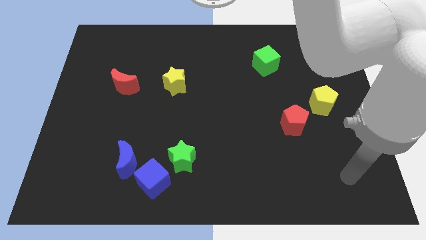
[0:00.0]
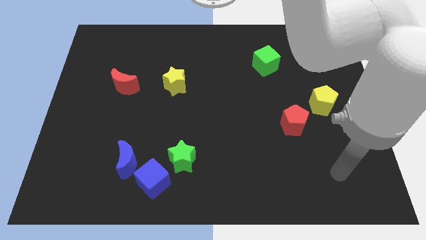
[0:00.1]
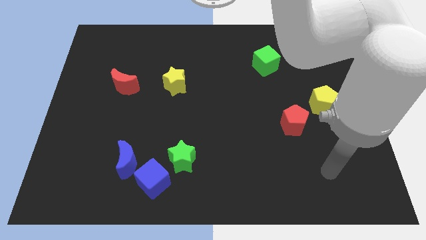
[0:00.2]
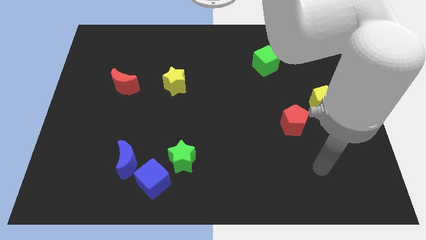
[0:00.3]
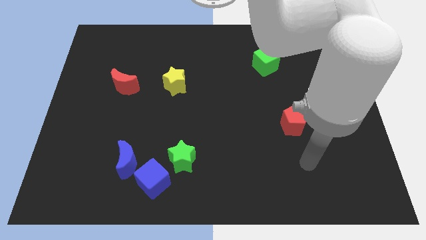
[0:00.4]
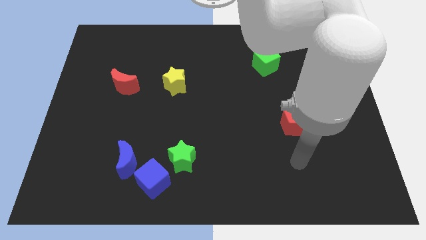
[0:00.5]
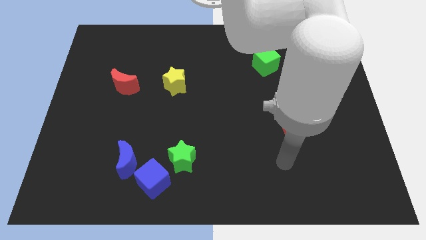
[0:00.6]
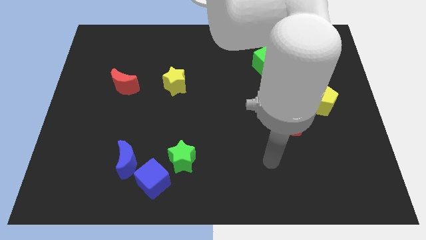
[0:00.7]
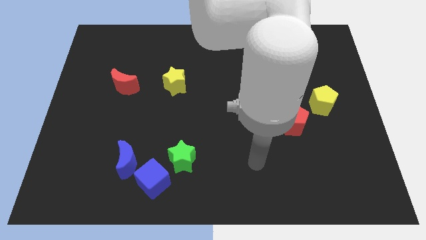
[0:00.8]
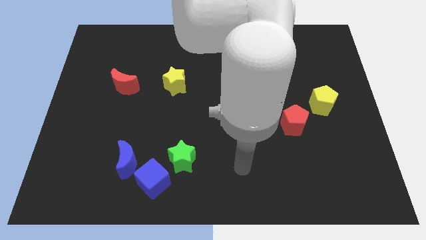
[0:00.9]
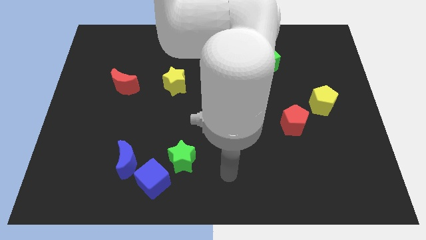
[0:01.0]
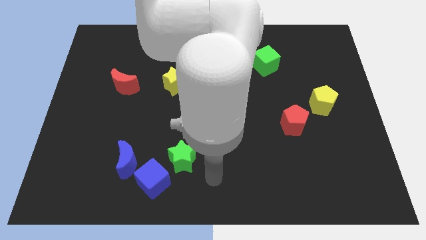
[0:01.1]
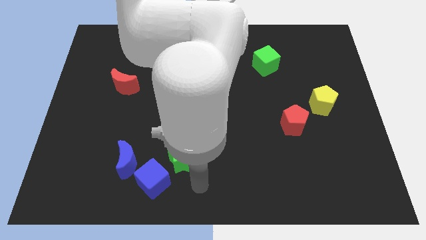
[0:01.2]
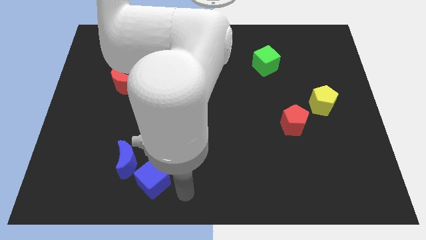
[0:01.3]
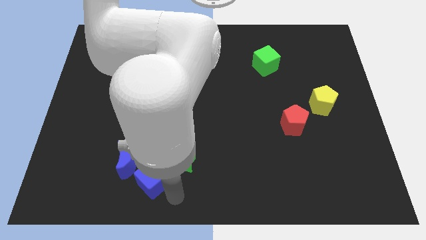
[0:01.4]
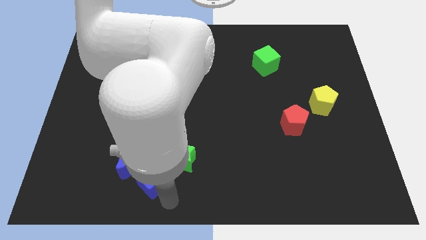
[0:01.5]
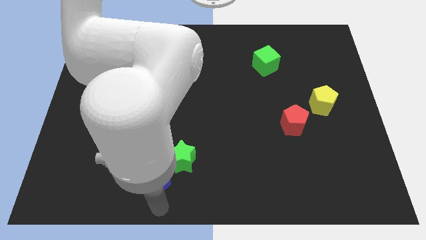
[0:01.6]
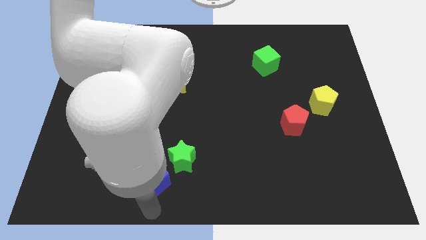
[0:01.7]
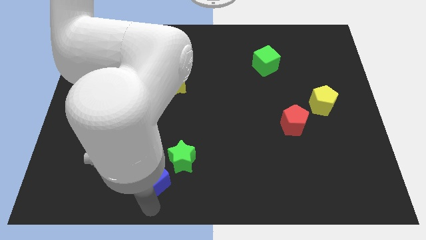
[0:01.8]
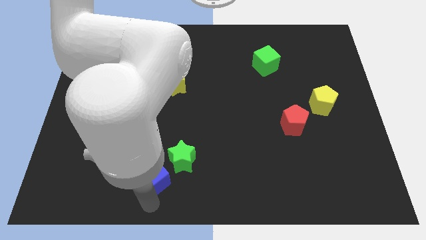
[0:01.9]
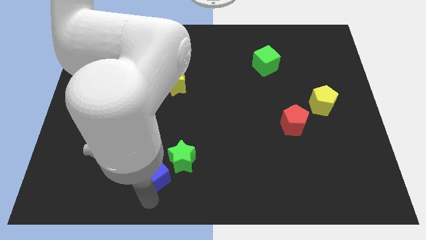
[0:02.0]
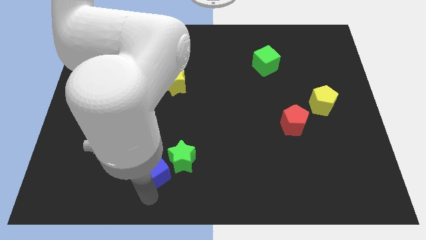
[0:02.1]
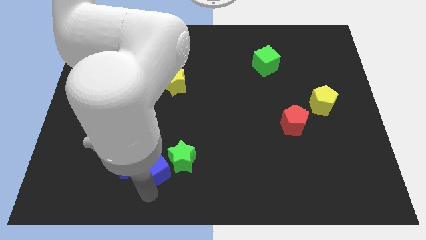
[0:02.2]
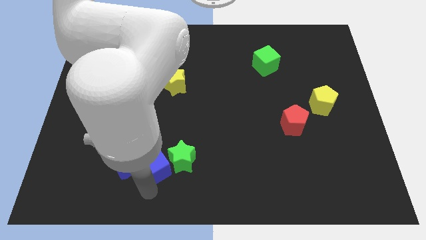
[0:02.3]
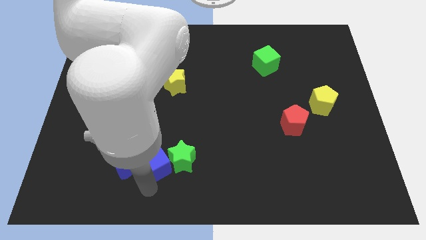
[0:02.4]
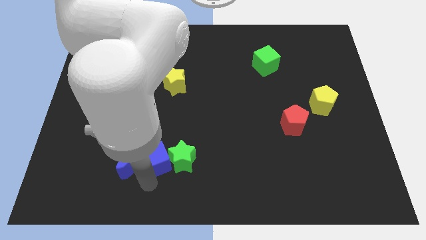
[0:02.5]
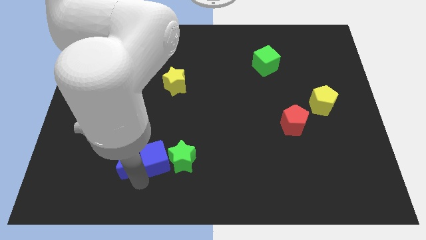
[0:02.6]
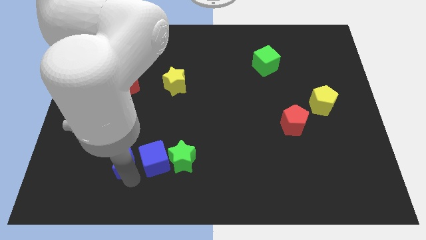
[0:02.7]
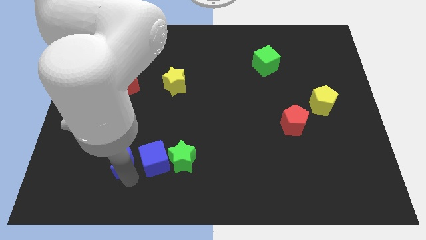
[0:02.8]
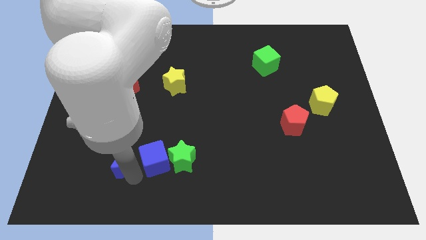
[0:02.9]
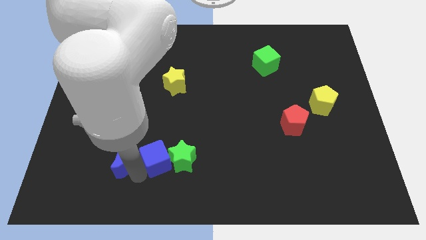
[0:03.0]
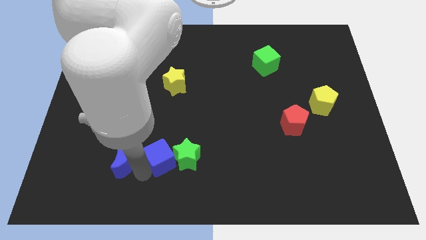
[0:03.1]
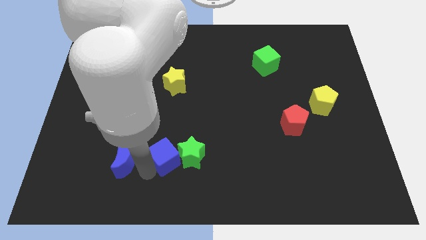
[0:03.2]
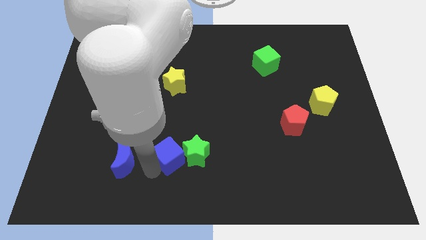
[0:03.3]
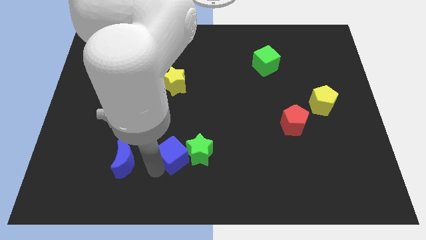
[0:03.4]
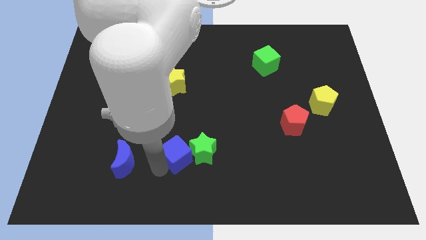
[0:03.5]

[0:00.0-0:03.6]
slide the blue cube diagonally up and right a bit

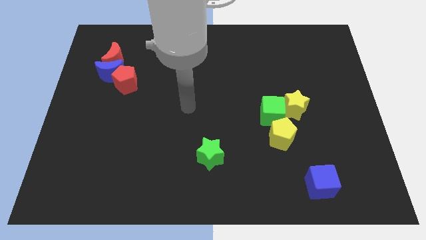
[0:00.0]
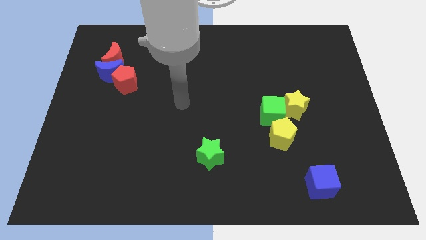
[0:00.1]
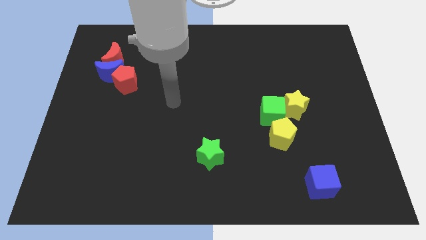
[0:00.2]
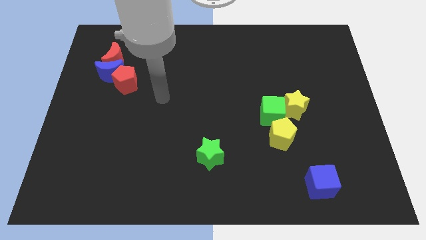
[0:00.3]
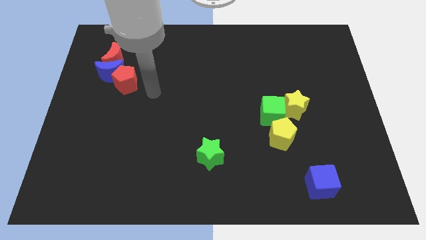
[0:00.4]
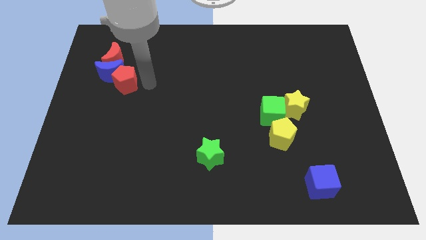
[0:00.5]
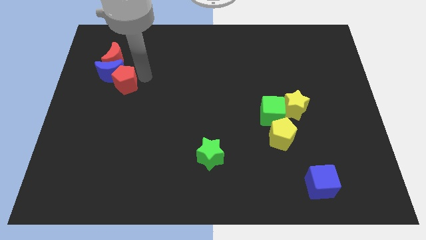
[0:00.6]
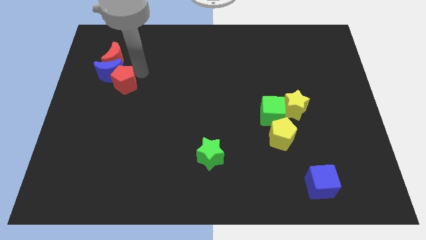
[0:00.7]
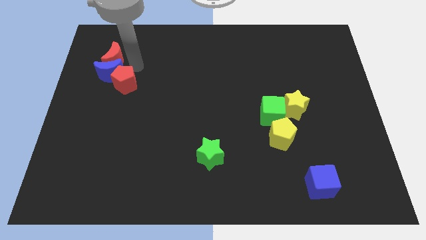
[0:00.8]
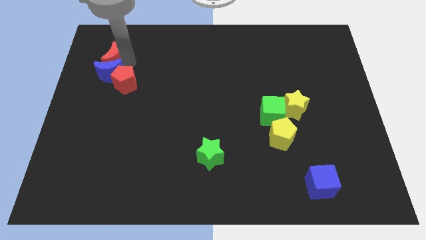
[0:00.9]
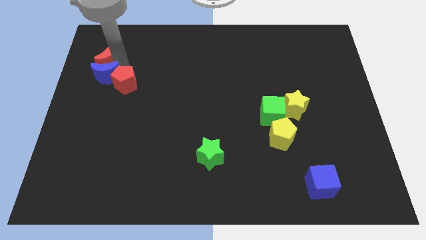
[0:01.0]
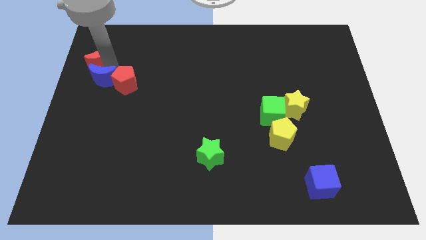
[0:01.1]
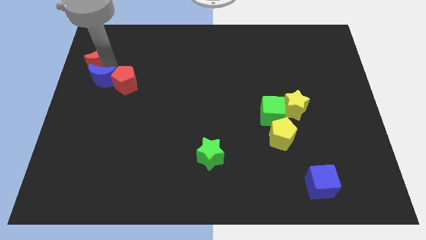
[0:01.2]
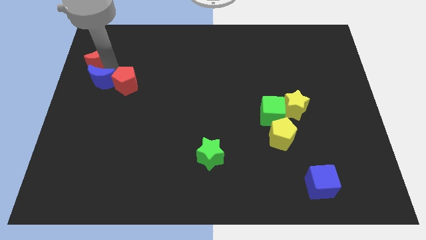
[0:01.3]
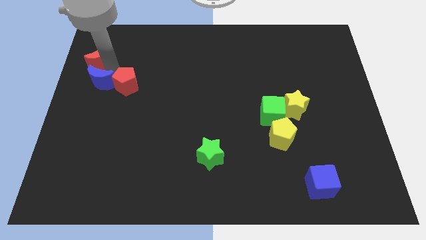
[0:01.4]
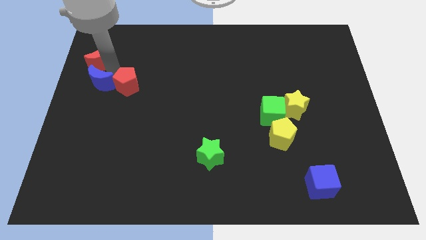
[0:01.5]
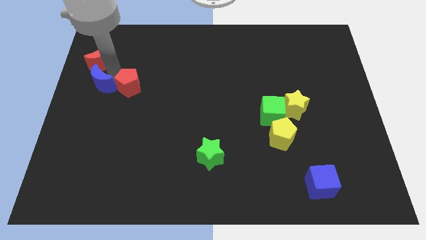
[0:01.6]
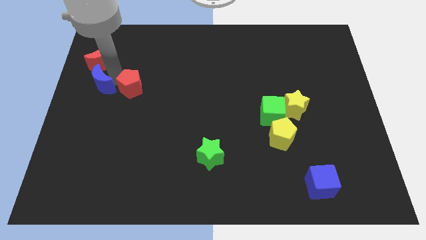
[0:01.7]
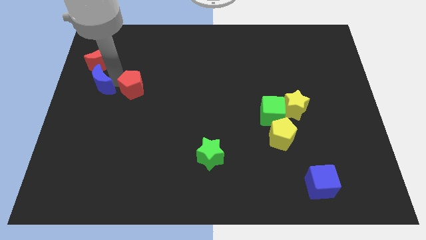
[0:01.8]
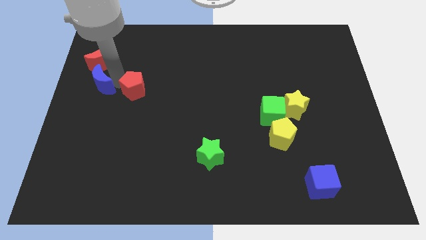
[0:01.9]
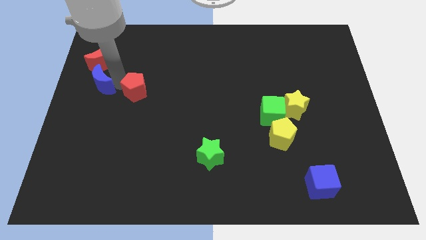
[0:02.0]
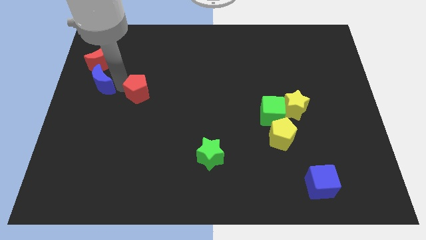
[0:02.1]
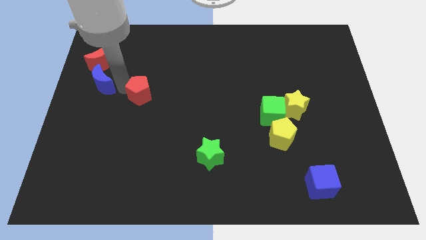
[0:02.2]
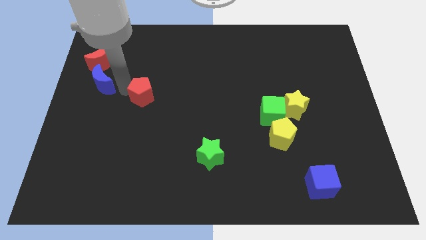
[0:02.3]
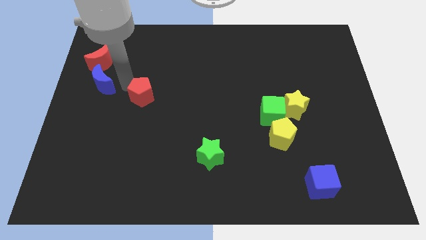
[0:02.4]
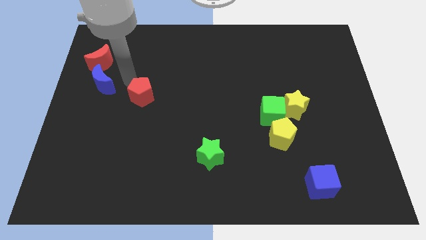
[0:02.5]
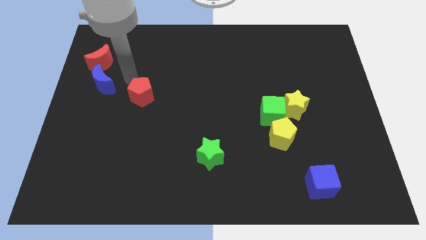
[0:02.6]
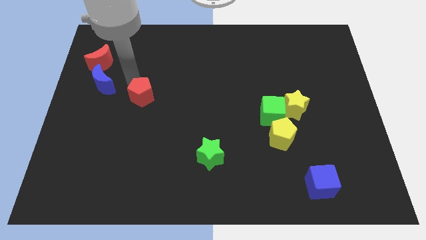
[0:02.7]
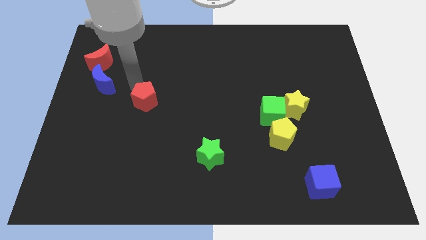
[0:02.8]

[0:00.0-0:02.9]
slightly push the red pentagon down and right

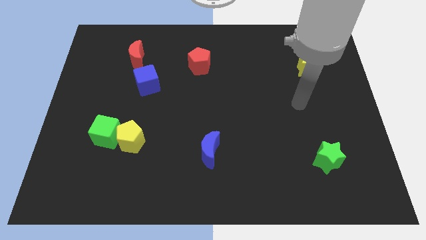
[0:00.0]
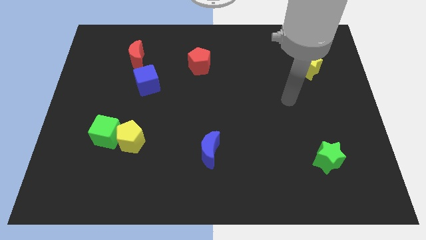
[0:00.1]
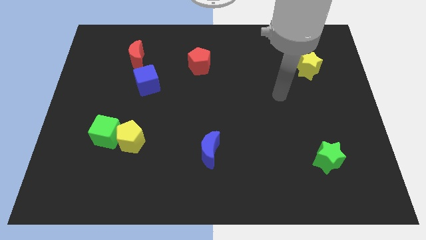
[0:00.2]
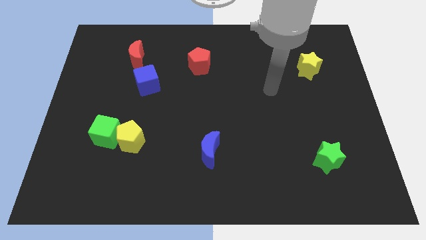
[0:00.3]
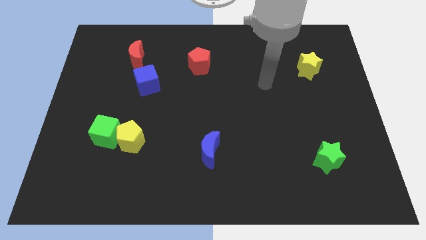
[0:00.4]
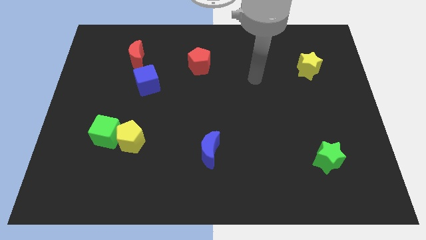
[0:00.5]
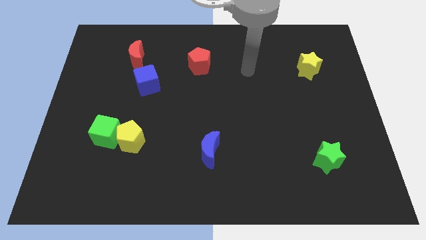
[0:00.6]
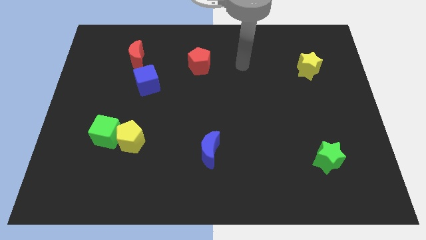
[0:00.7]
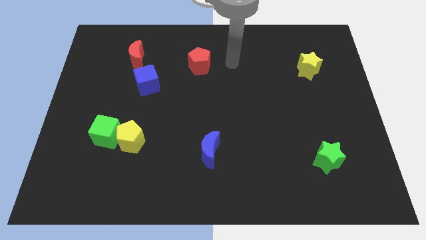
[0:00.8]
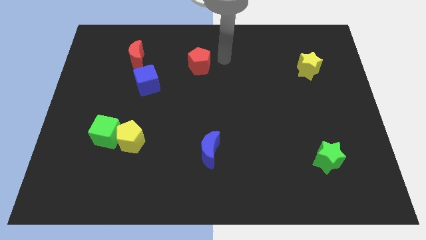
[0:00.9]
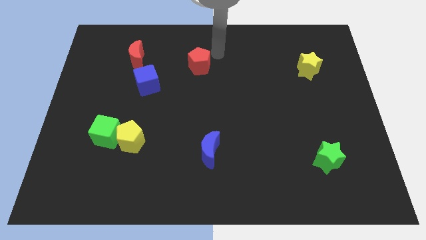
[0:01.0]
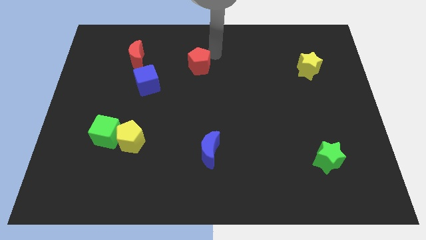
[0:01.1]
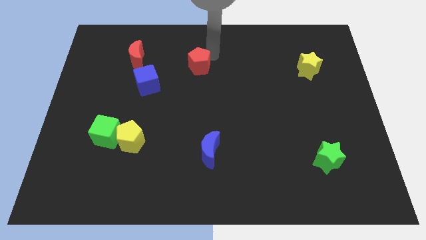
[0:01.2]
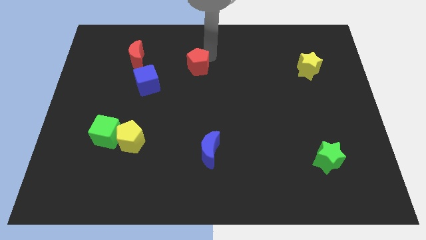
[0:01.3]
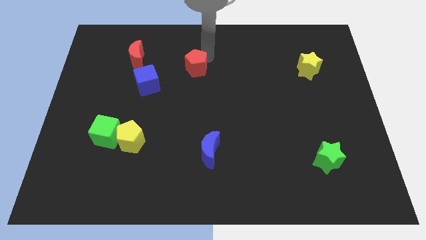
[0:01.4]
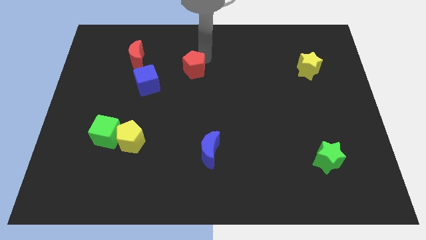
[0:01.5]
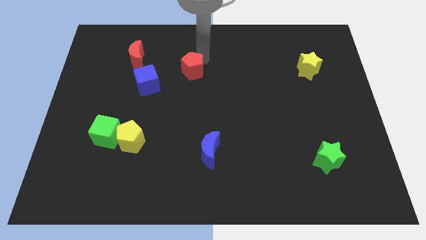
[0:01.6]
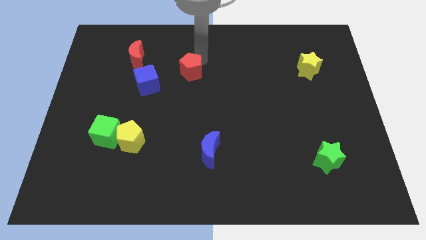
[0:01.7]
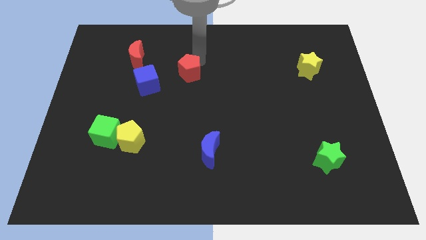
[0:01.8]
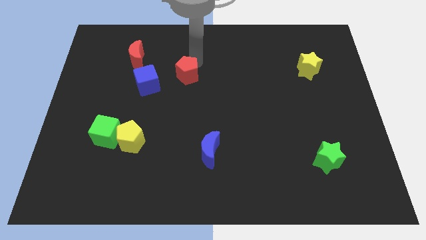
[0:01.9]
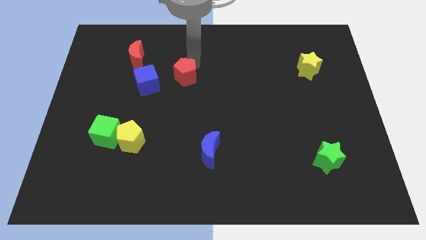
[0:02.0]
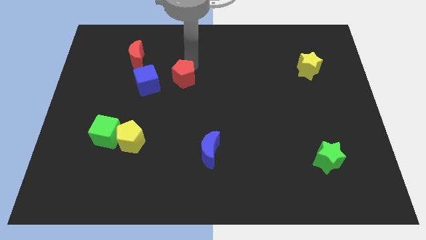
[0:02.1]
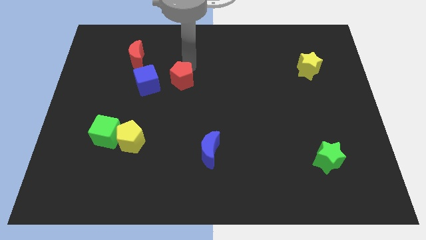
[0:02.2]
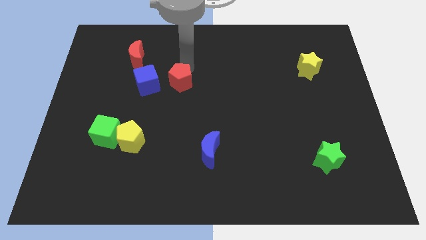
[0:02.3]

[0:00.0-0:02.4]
slightly push the red pentagon downwards and then to the left
